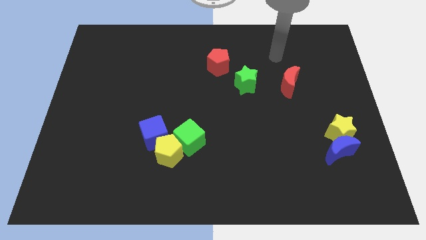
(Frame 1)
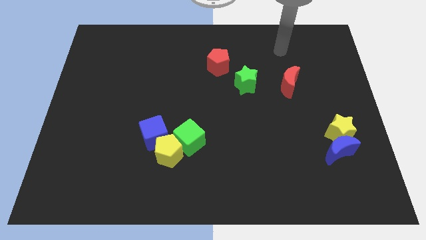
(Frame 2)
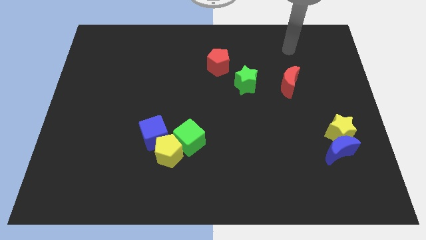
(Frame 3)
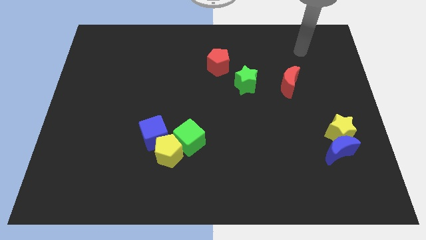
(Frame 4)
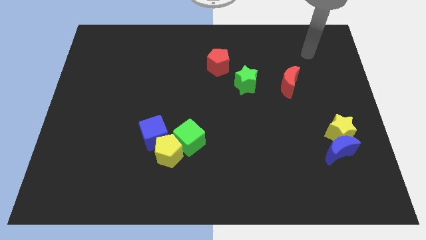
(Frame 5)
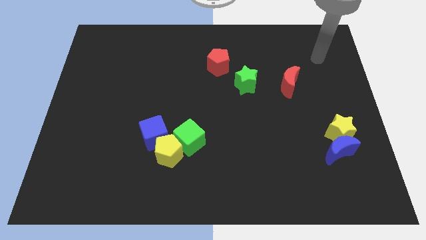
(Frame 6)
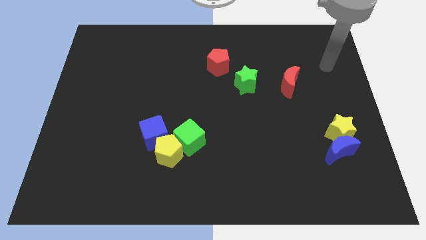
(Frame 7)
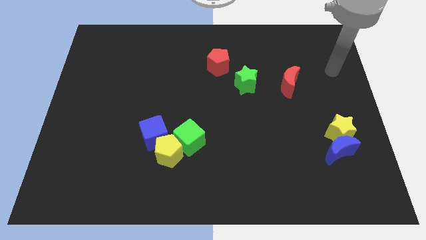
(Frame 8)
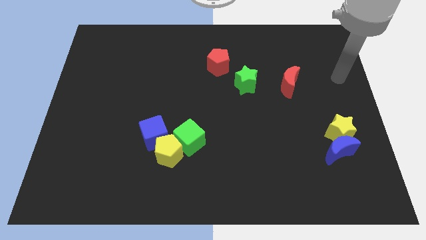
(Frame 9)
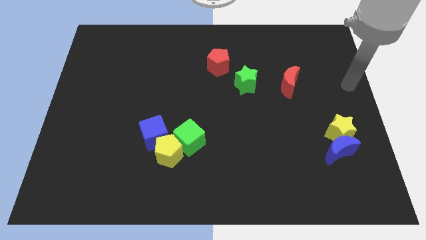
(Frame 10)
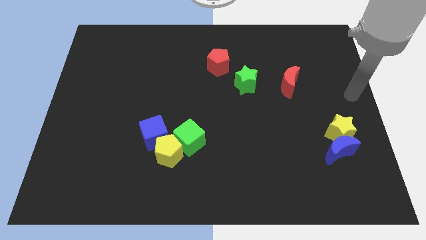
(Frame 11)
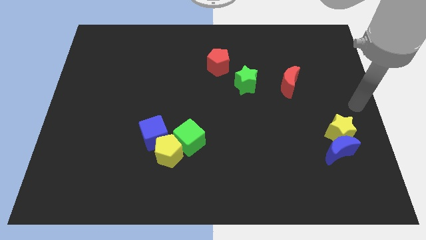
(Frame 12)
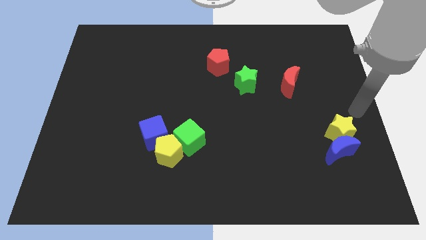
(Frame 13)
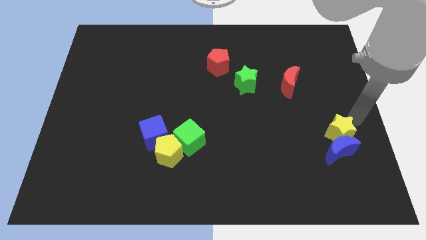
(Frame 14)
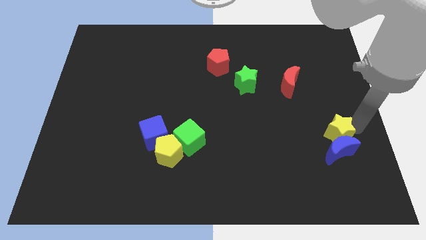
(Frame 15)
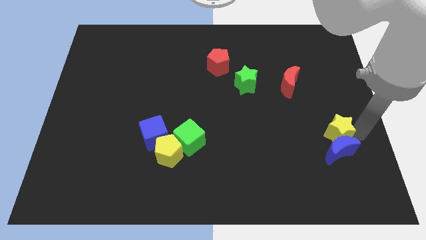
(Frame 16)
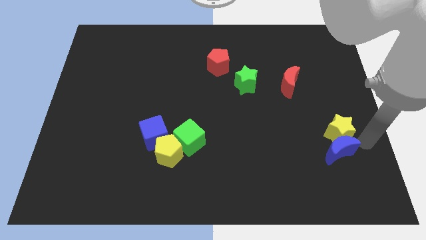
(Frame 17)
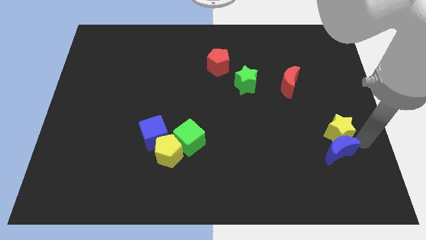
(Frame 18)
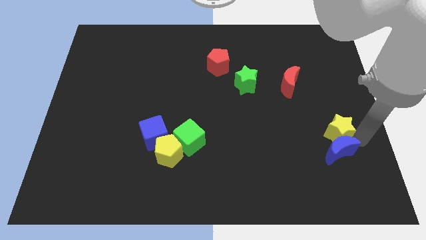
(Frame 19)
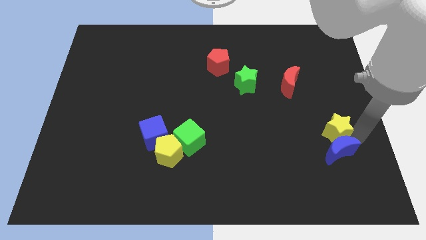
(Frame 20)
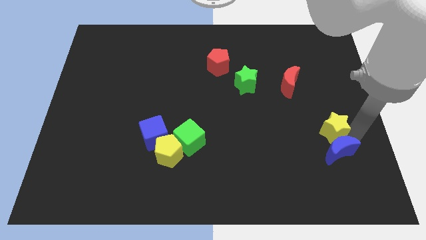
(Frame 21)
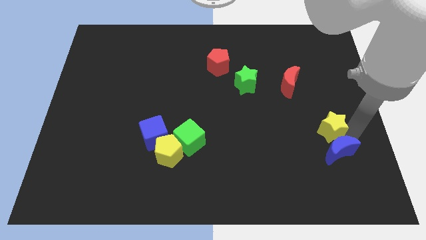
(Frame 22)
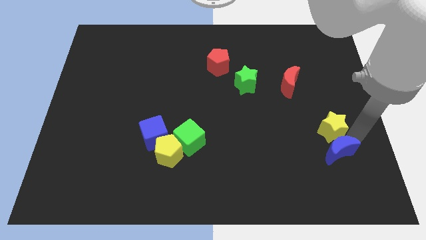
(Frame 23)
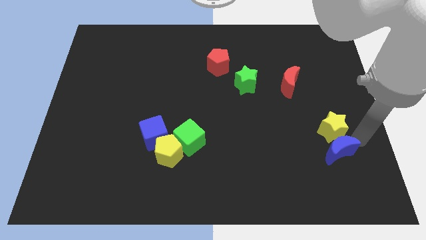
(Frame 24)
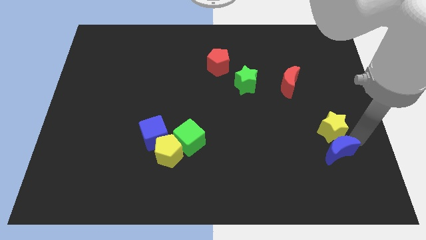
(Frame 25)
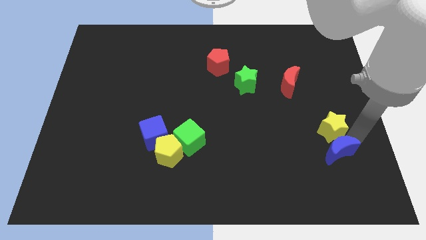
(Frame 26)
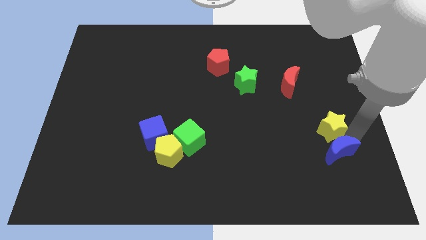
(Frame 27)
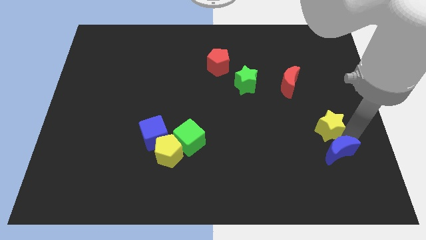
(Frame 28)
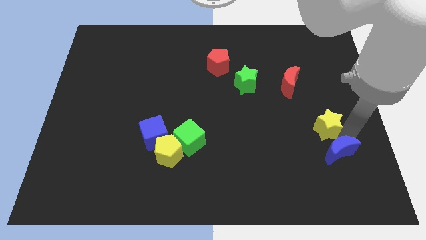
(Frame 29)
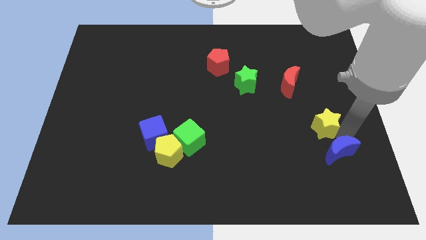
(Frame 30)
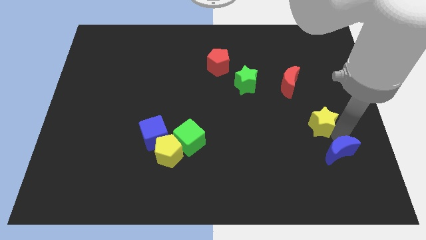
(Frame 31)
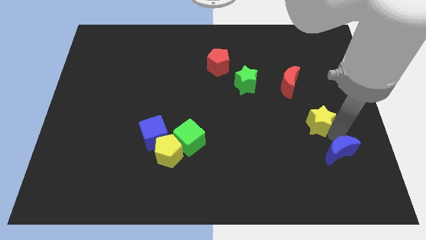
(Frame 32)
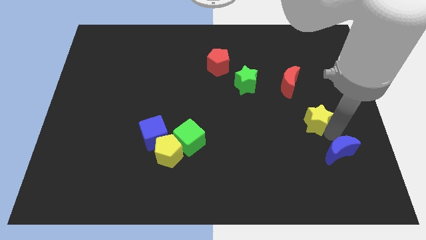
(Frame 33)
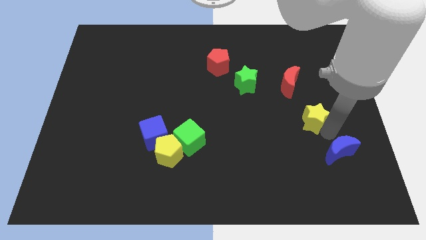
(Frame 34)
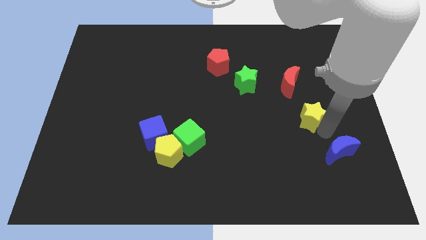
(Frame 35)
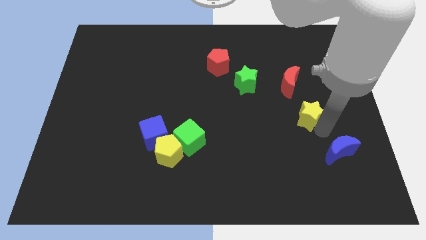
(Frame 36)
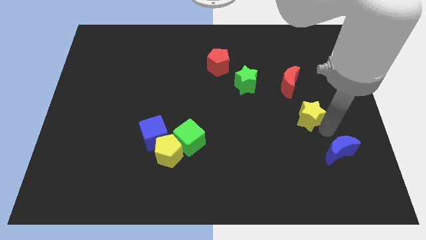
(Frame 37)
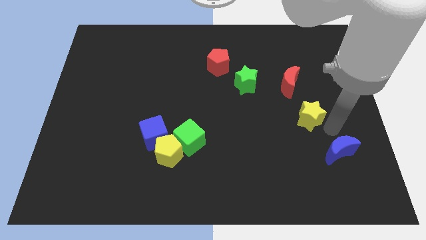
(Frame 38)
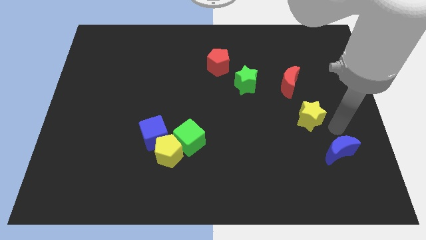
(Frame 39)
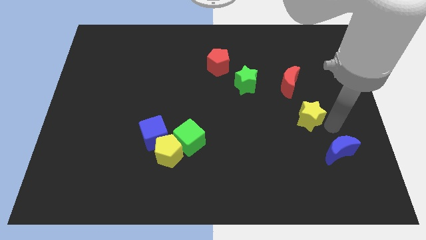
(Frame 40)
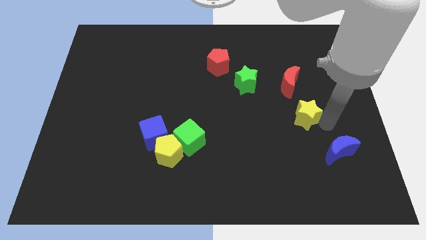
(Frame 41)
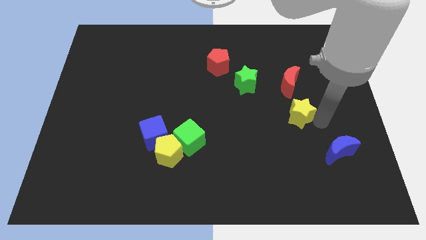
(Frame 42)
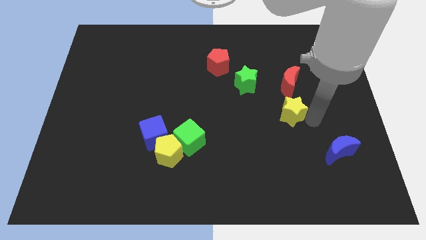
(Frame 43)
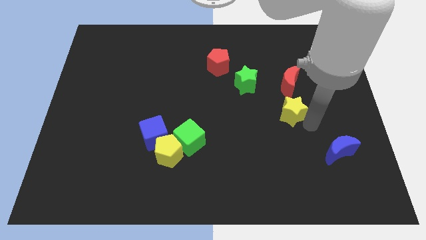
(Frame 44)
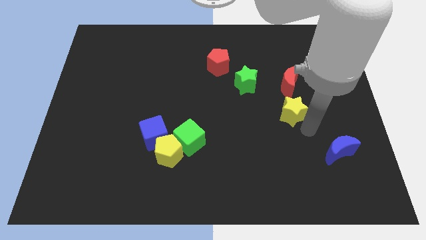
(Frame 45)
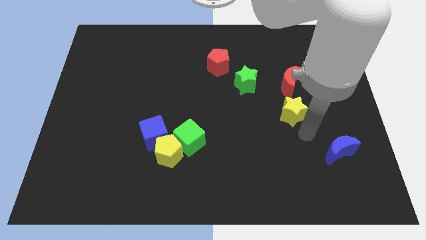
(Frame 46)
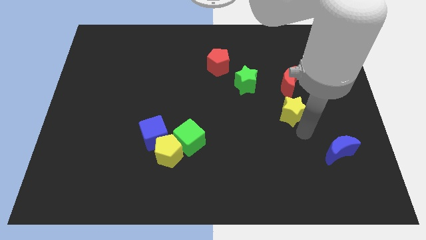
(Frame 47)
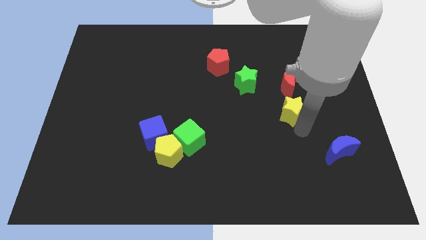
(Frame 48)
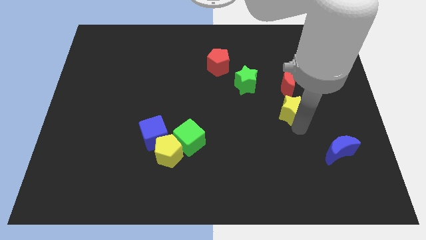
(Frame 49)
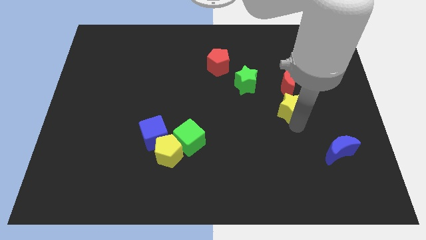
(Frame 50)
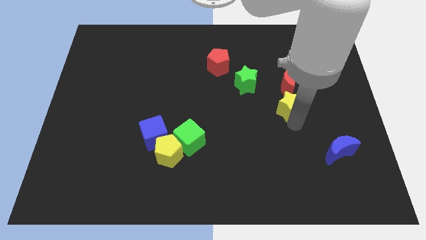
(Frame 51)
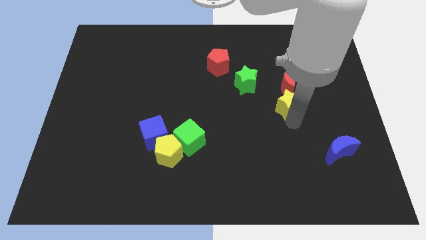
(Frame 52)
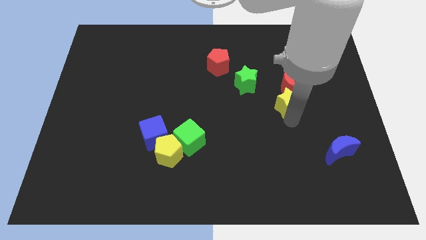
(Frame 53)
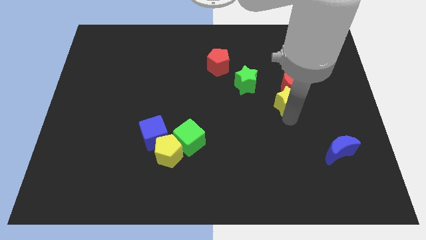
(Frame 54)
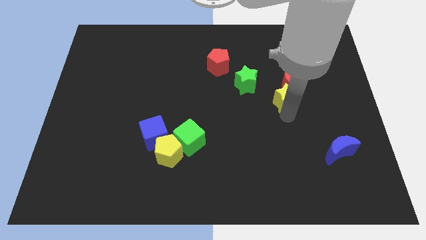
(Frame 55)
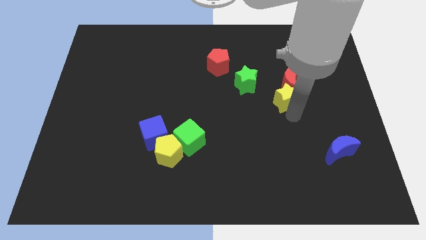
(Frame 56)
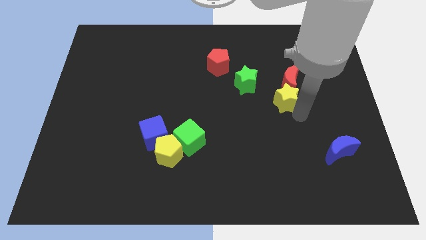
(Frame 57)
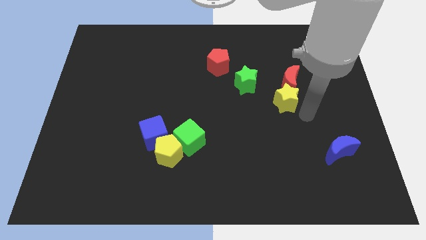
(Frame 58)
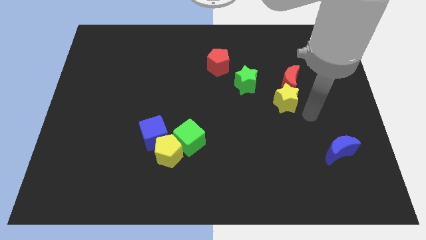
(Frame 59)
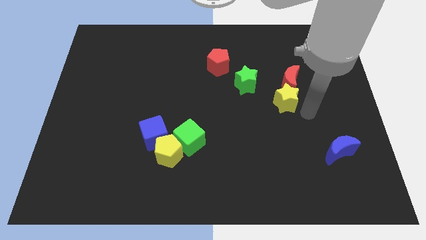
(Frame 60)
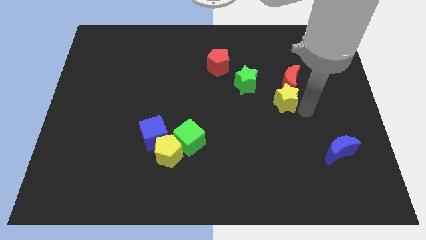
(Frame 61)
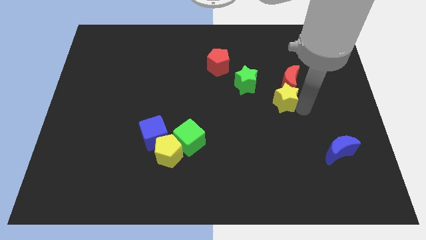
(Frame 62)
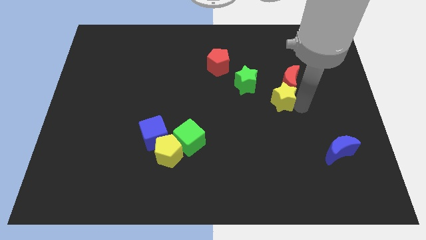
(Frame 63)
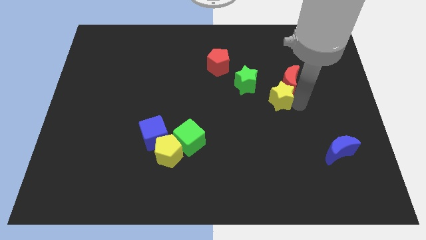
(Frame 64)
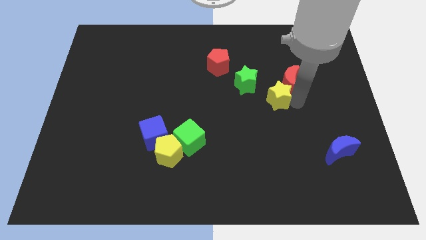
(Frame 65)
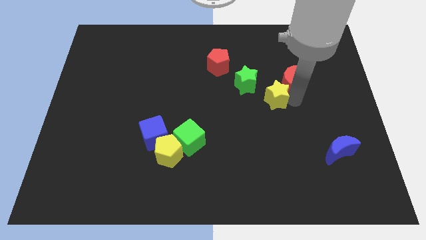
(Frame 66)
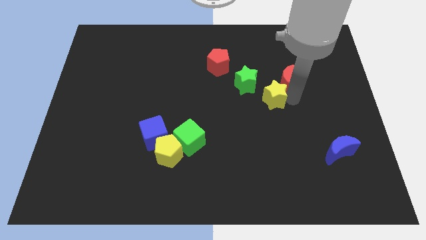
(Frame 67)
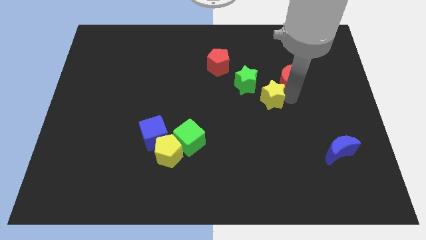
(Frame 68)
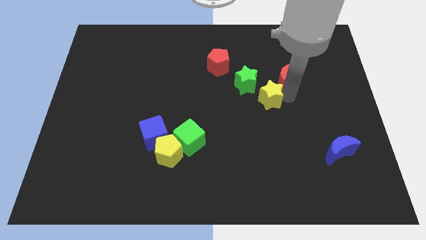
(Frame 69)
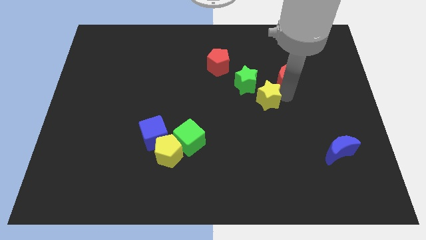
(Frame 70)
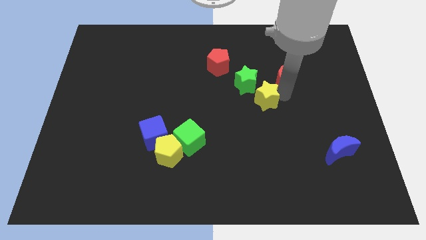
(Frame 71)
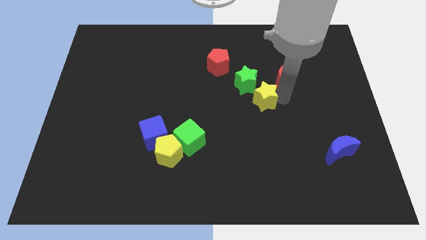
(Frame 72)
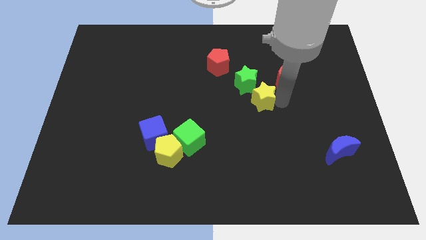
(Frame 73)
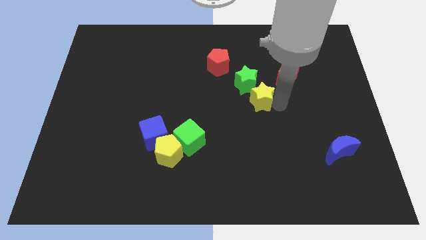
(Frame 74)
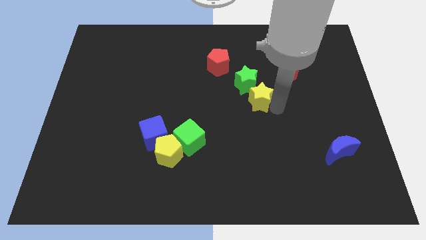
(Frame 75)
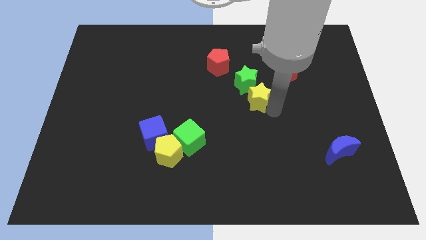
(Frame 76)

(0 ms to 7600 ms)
put the yellow star next to the green star
